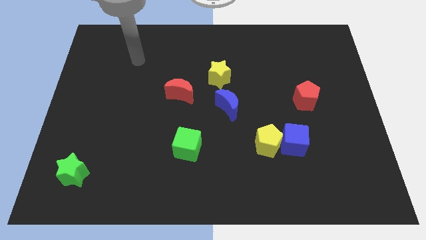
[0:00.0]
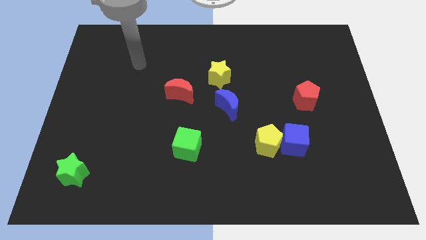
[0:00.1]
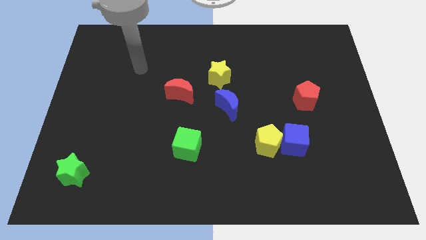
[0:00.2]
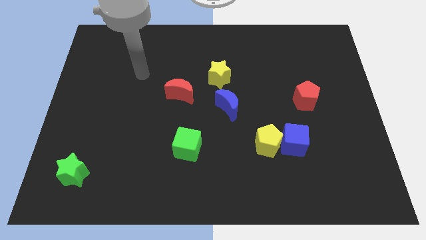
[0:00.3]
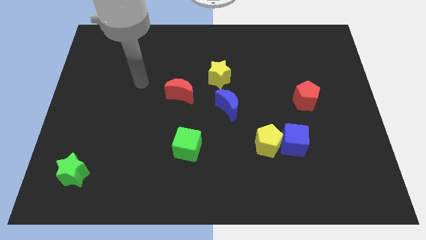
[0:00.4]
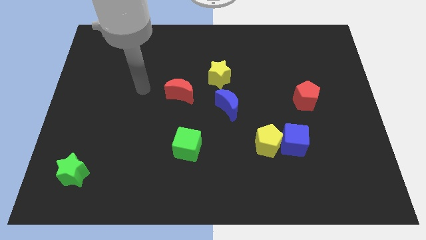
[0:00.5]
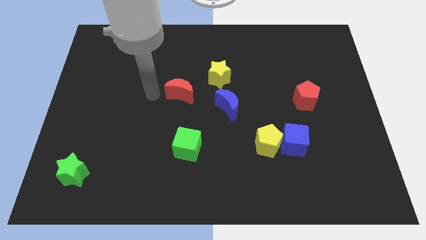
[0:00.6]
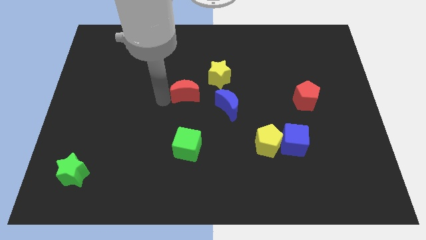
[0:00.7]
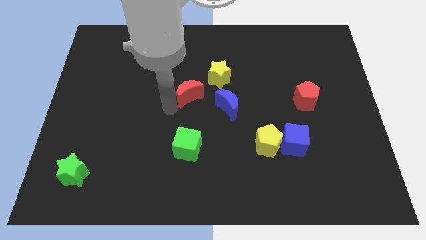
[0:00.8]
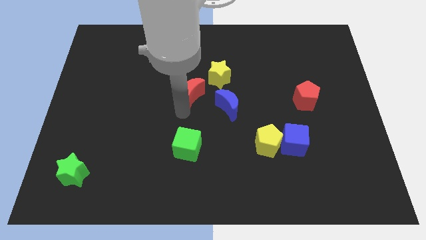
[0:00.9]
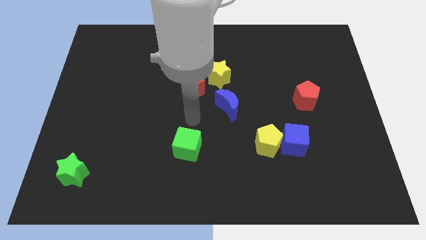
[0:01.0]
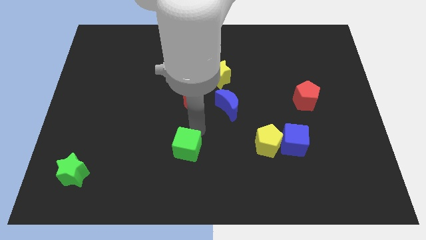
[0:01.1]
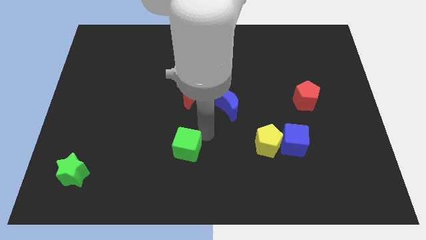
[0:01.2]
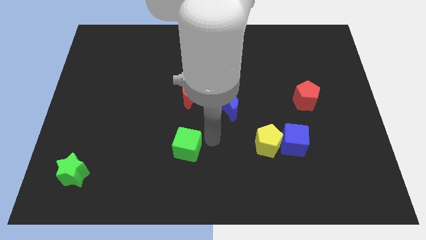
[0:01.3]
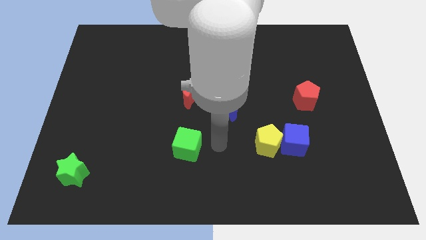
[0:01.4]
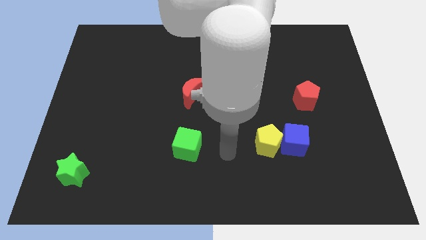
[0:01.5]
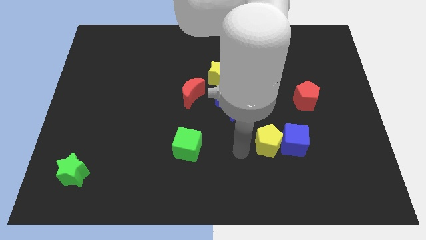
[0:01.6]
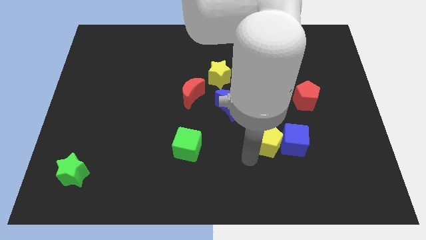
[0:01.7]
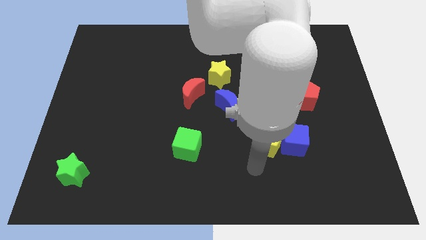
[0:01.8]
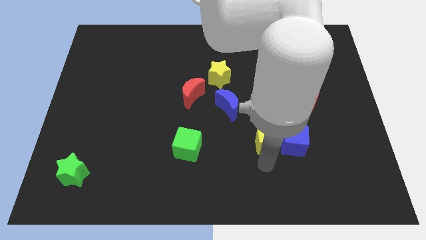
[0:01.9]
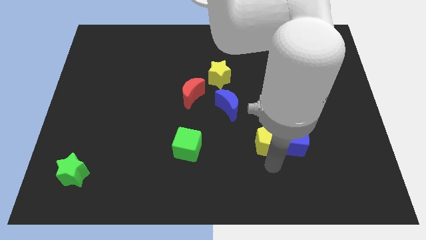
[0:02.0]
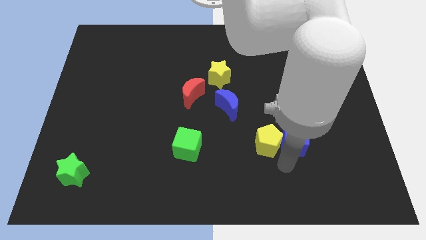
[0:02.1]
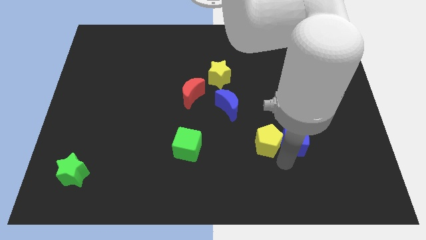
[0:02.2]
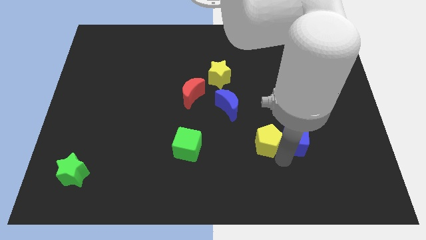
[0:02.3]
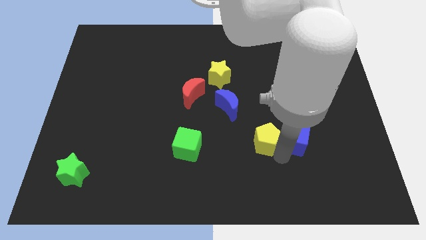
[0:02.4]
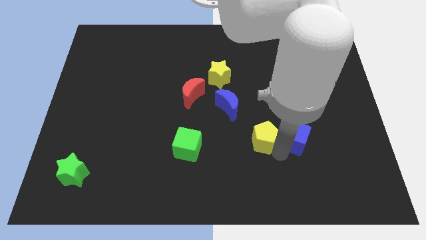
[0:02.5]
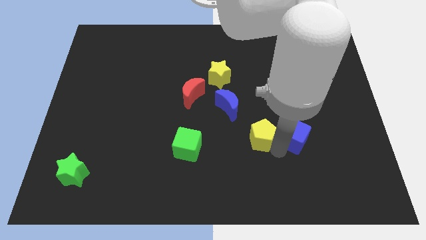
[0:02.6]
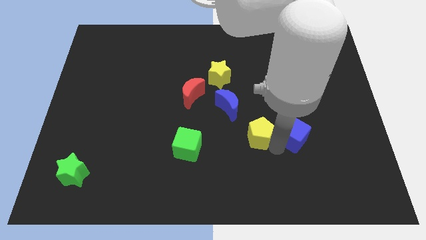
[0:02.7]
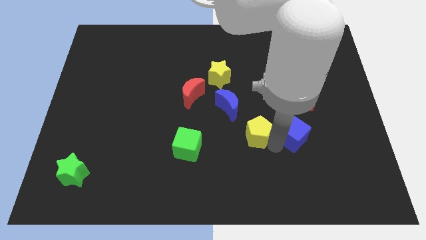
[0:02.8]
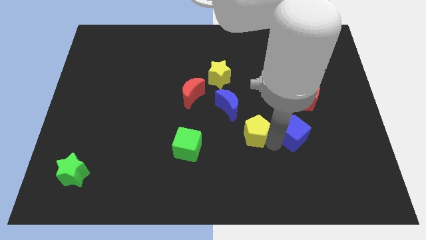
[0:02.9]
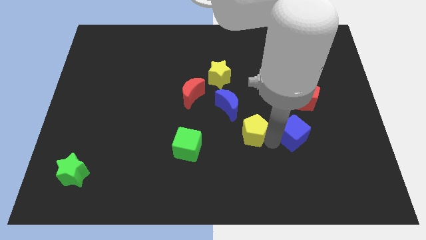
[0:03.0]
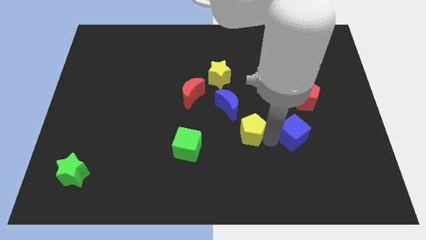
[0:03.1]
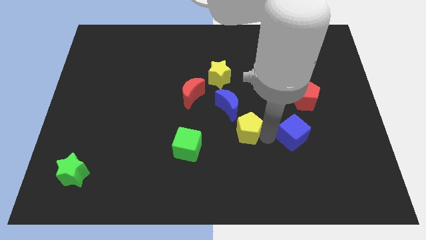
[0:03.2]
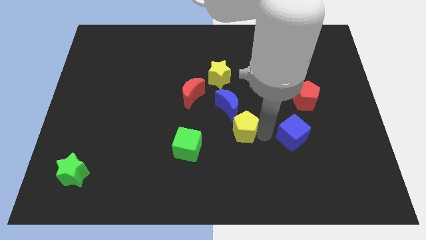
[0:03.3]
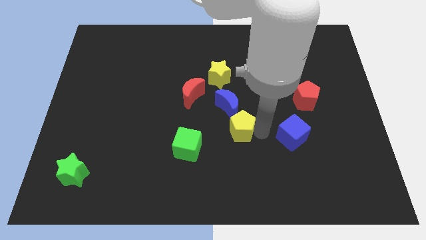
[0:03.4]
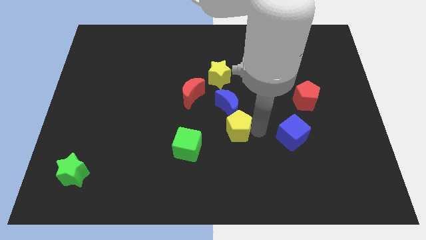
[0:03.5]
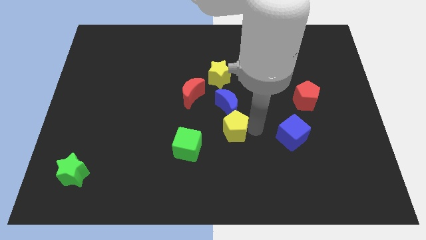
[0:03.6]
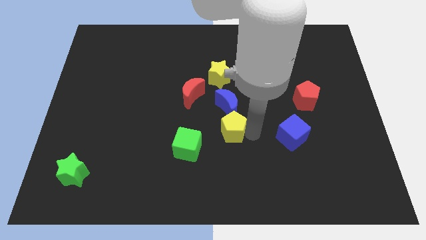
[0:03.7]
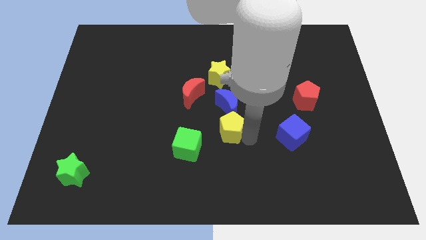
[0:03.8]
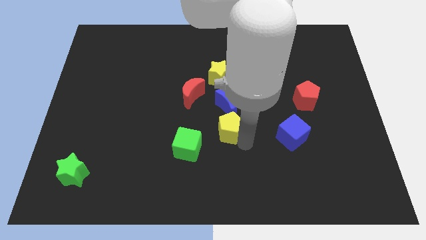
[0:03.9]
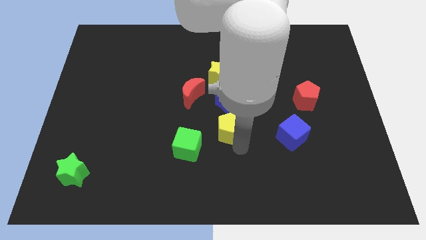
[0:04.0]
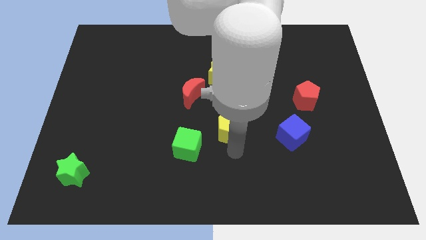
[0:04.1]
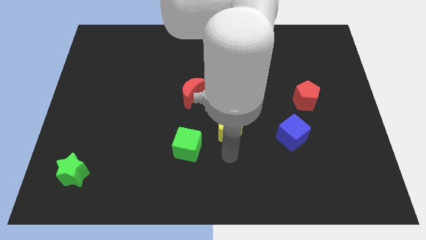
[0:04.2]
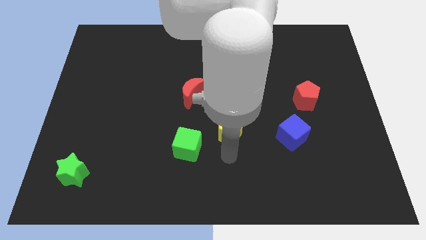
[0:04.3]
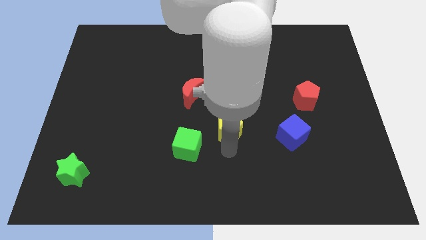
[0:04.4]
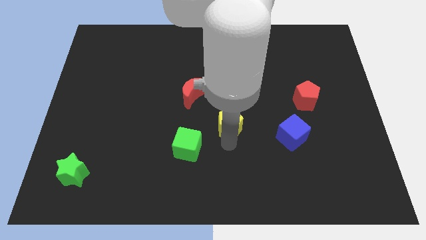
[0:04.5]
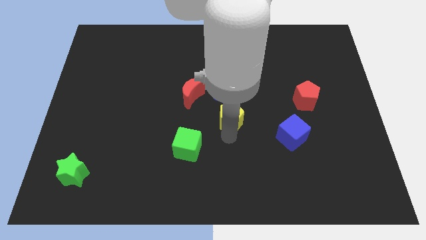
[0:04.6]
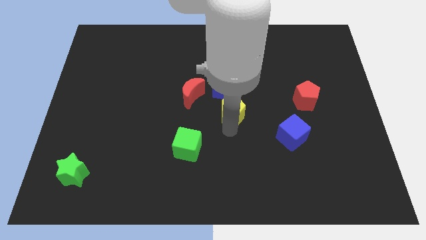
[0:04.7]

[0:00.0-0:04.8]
slide the yellow pentagon next to the blue moon
